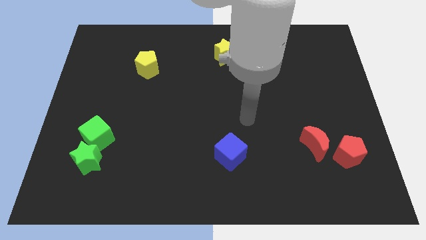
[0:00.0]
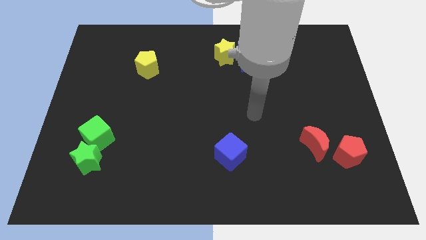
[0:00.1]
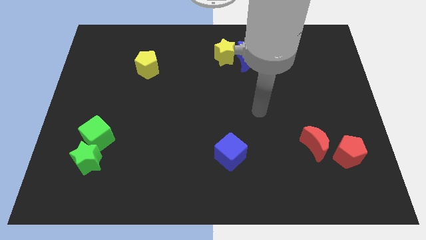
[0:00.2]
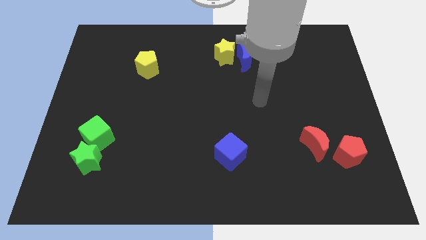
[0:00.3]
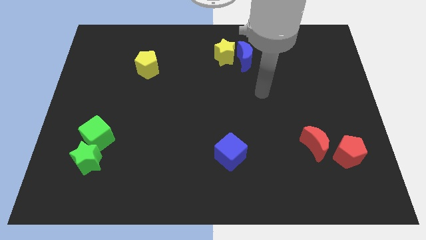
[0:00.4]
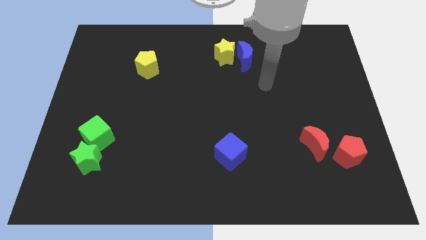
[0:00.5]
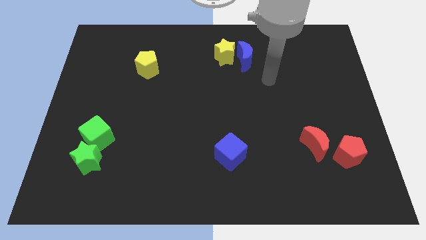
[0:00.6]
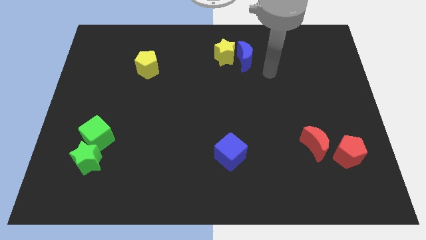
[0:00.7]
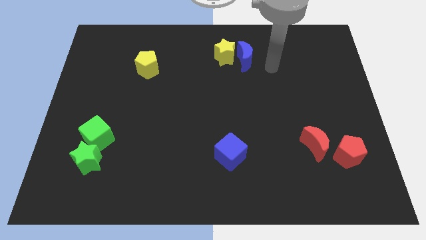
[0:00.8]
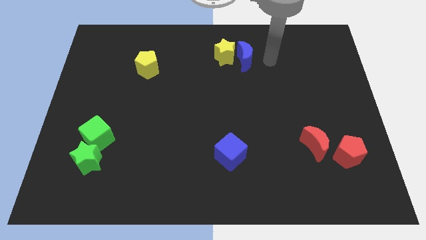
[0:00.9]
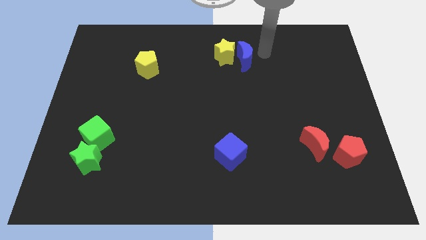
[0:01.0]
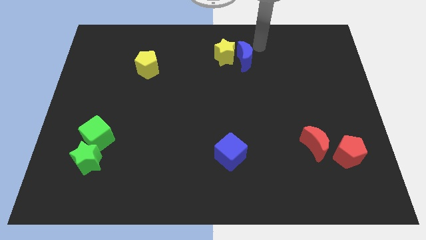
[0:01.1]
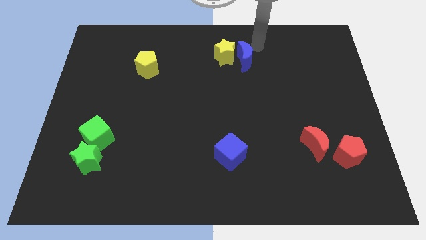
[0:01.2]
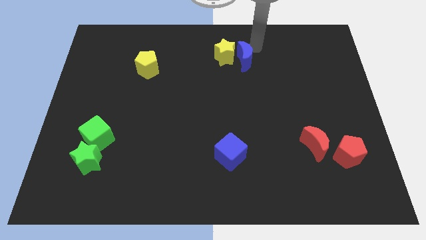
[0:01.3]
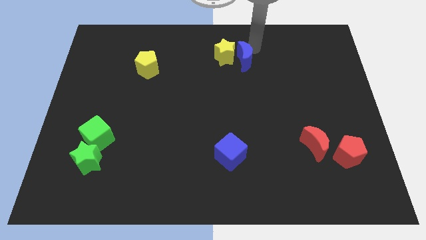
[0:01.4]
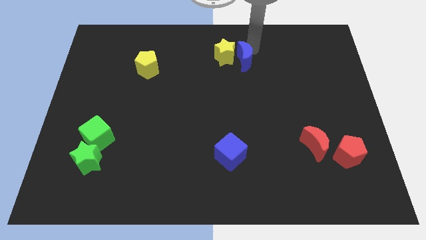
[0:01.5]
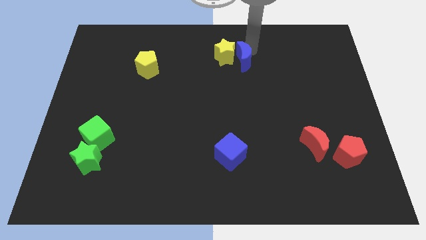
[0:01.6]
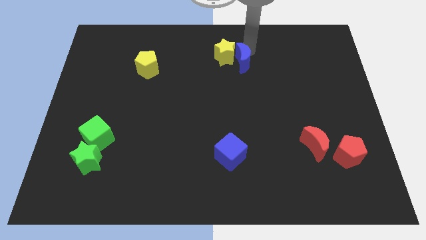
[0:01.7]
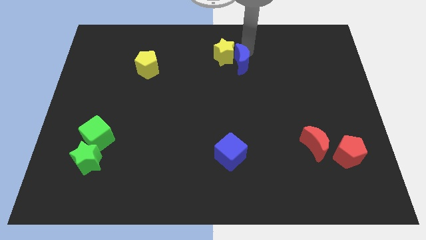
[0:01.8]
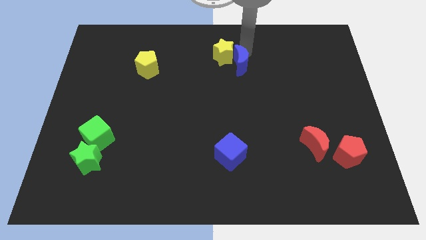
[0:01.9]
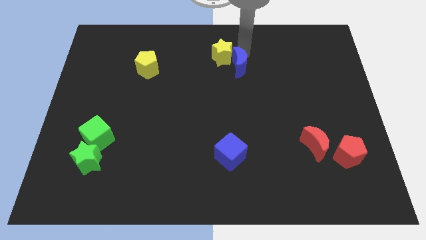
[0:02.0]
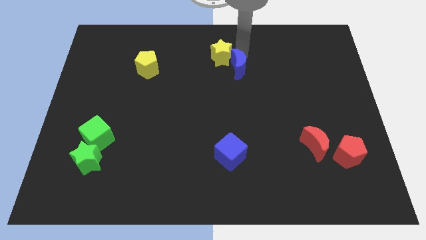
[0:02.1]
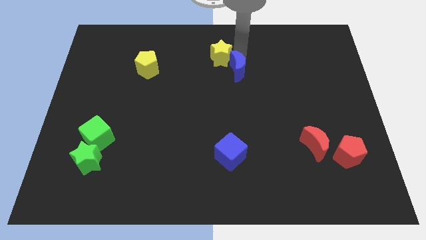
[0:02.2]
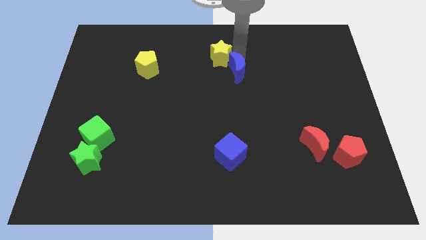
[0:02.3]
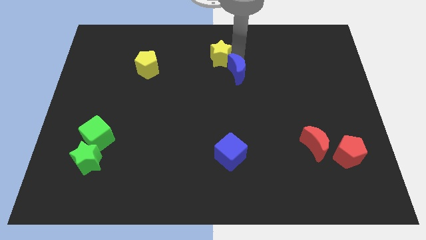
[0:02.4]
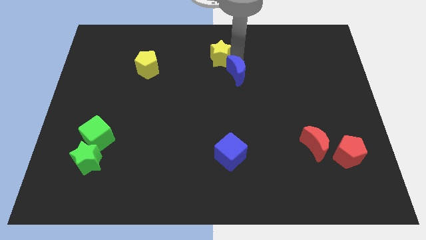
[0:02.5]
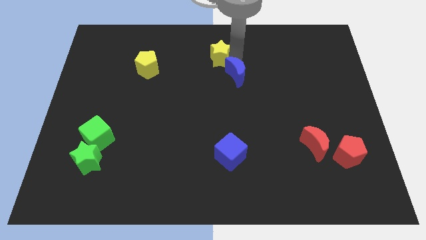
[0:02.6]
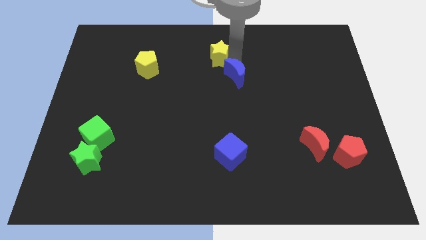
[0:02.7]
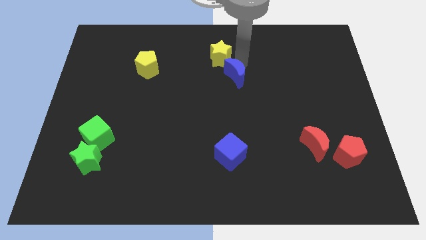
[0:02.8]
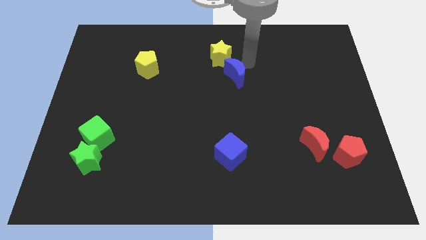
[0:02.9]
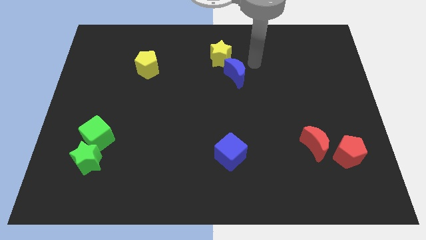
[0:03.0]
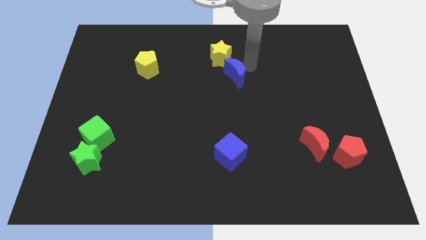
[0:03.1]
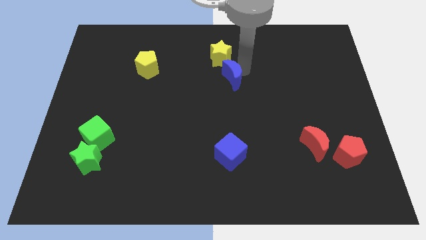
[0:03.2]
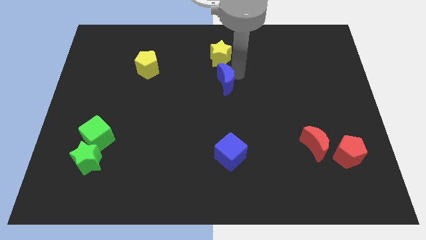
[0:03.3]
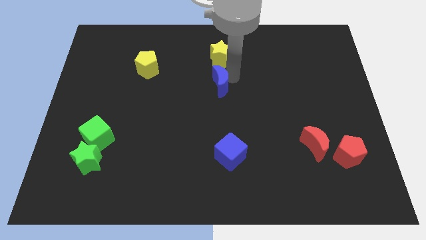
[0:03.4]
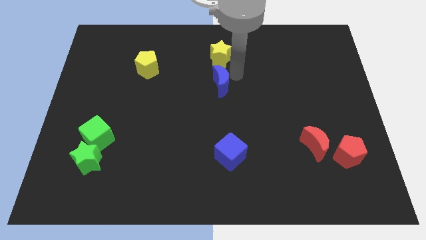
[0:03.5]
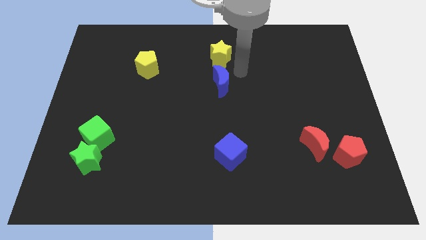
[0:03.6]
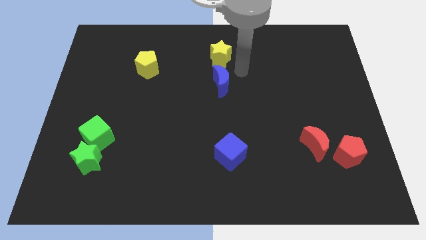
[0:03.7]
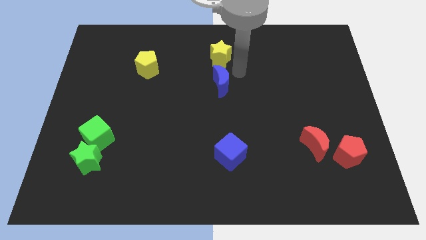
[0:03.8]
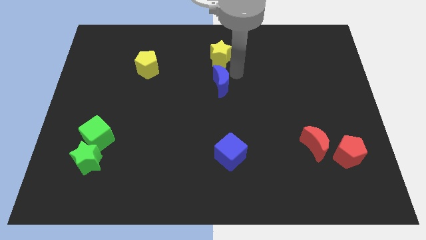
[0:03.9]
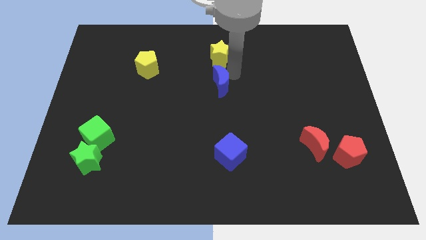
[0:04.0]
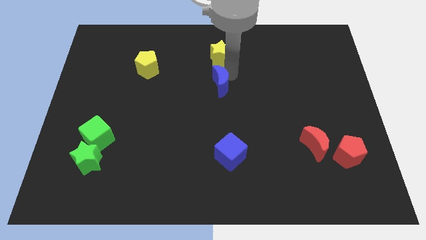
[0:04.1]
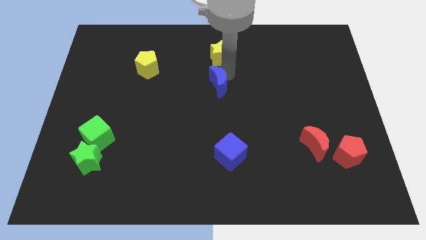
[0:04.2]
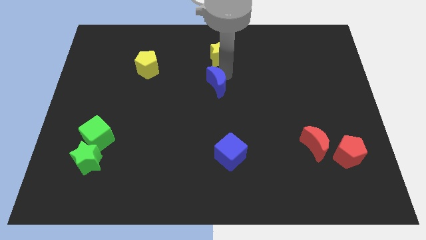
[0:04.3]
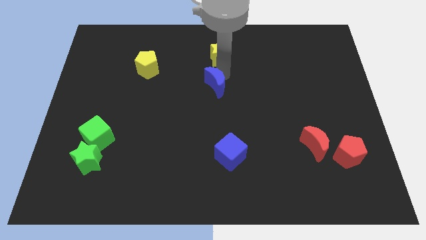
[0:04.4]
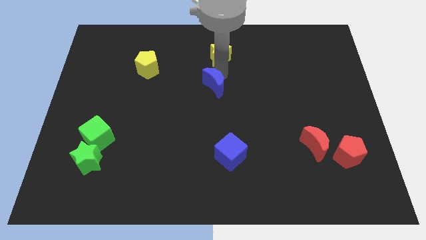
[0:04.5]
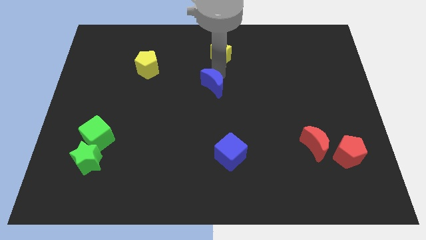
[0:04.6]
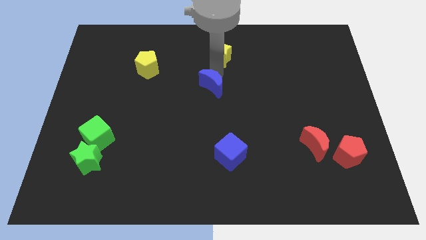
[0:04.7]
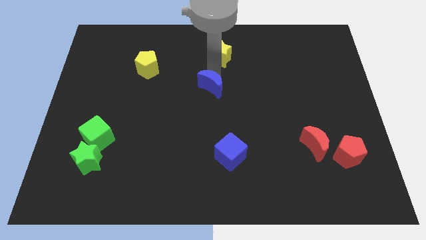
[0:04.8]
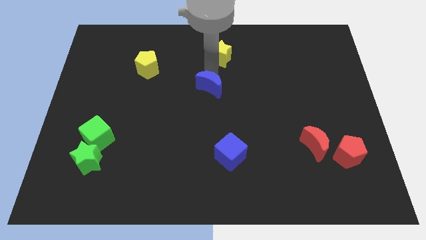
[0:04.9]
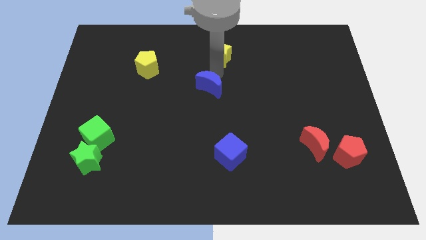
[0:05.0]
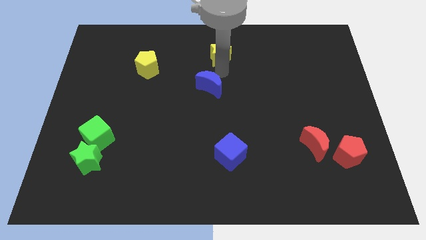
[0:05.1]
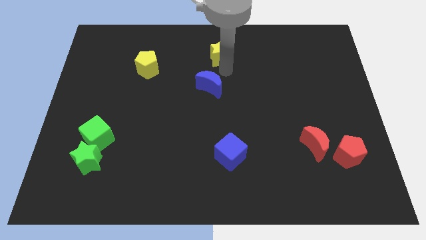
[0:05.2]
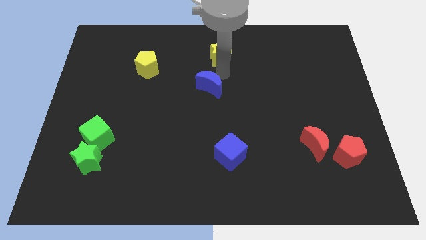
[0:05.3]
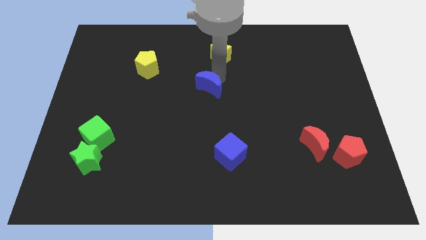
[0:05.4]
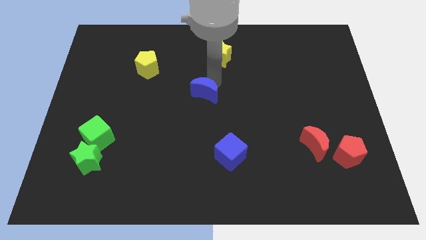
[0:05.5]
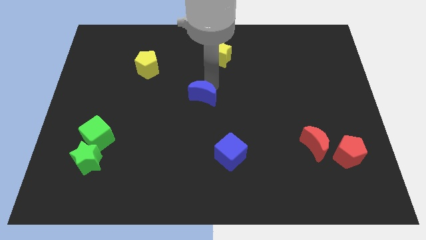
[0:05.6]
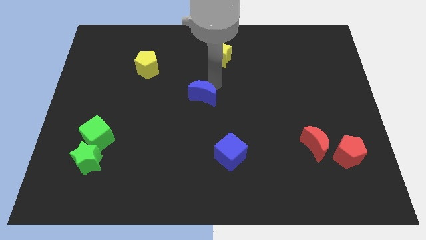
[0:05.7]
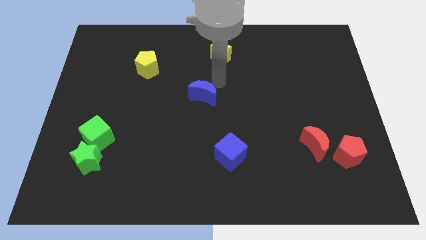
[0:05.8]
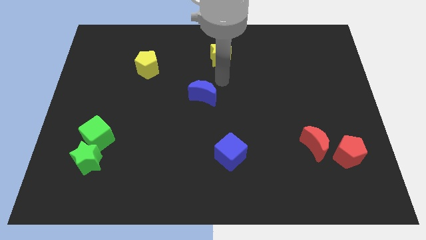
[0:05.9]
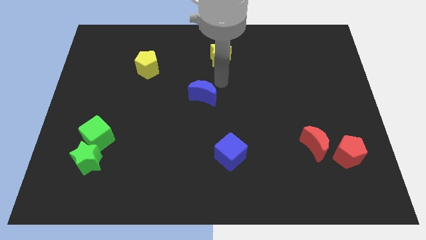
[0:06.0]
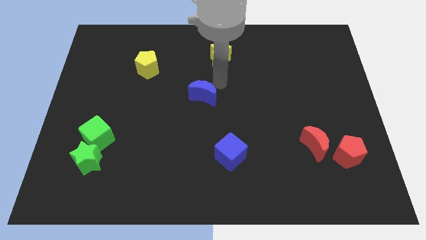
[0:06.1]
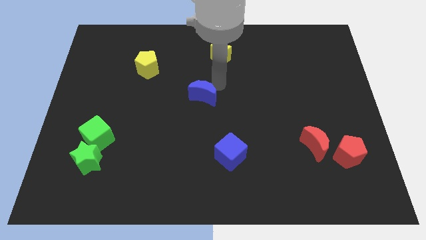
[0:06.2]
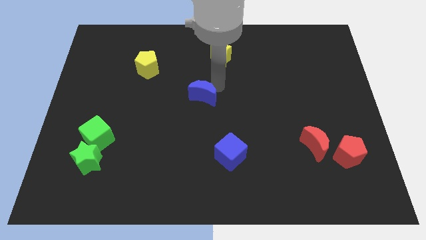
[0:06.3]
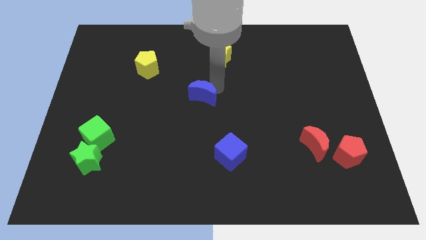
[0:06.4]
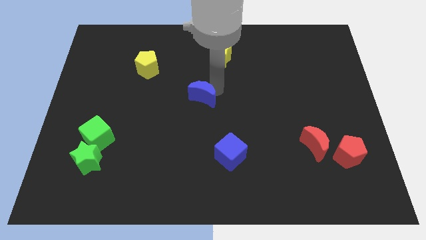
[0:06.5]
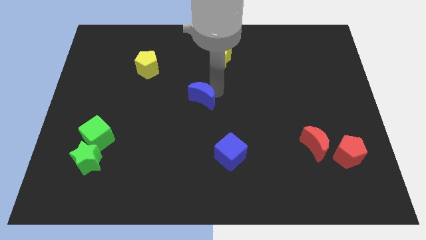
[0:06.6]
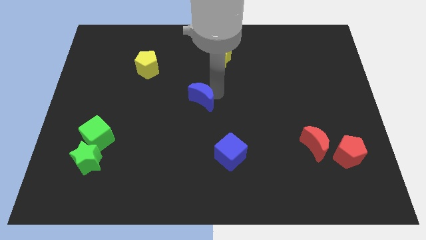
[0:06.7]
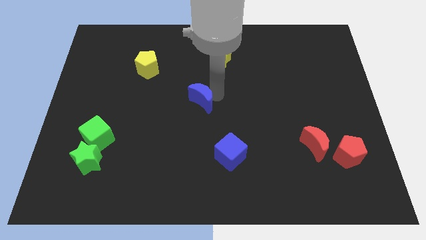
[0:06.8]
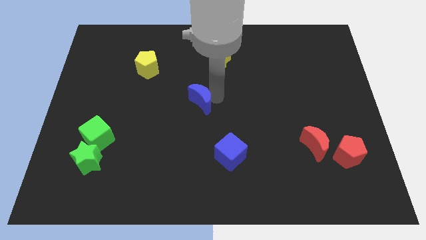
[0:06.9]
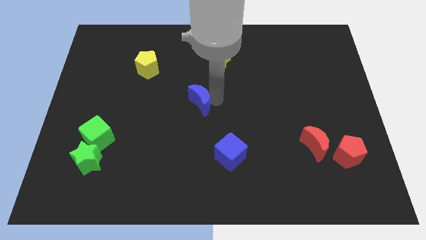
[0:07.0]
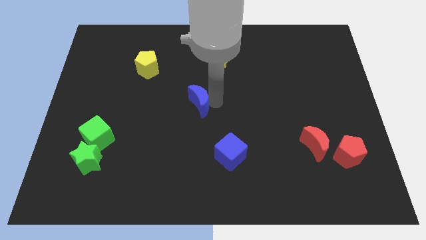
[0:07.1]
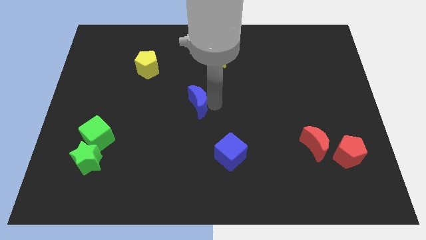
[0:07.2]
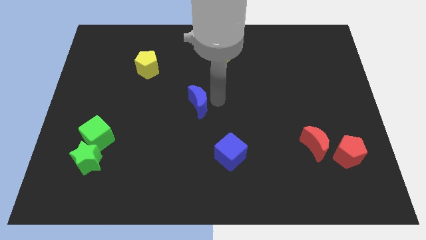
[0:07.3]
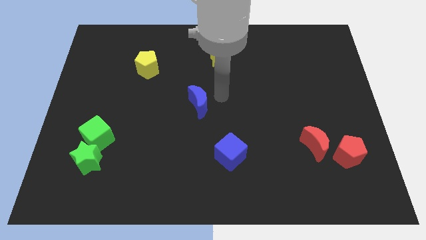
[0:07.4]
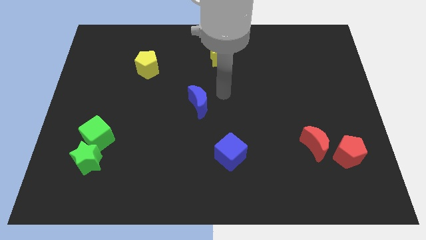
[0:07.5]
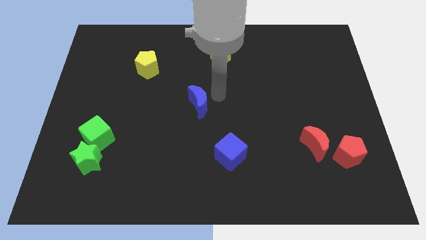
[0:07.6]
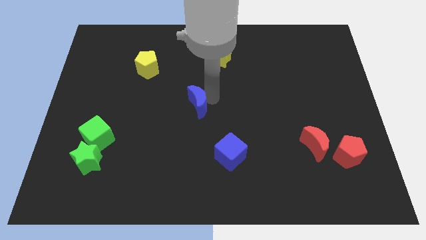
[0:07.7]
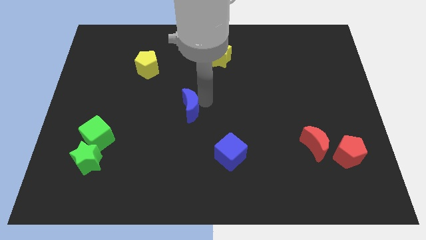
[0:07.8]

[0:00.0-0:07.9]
move the blue moon diagonally downwards and to the left
